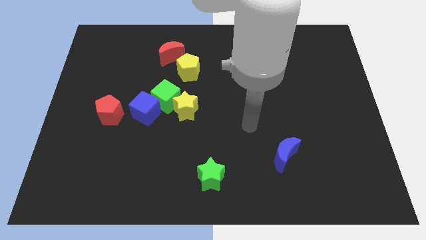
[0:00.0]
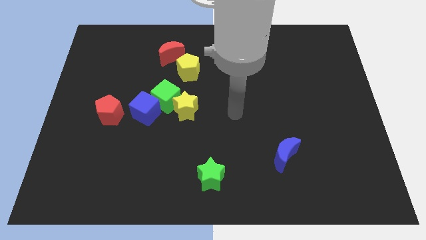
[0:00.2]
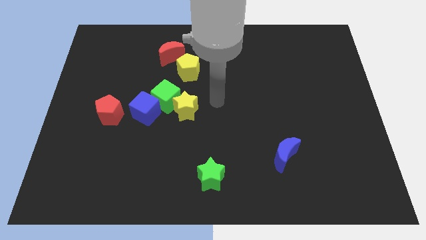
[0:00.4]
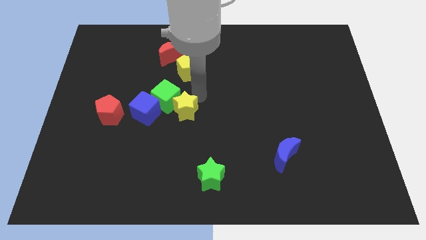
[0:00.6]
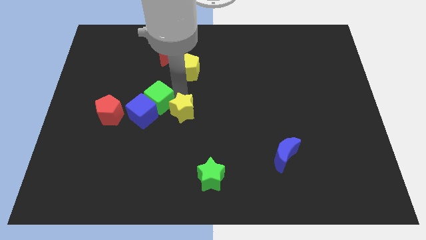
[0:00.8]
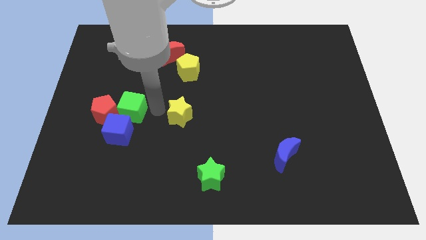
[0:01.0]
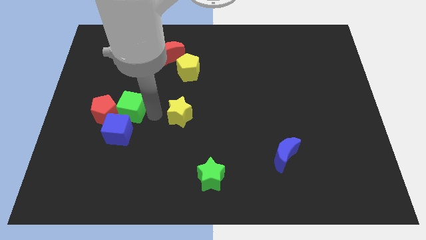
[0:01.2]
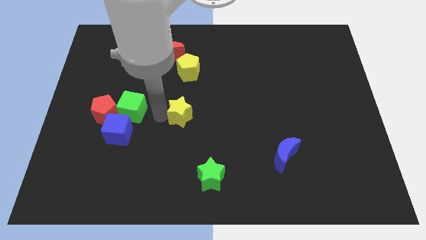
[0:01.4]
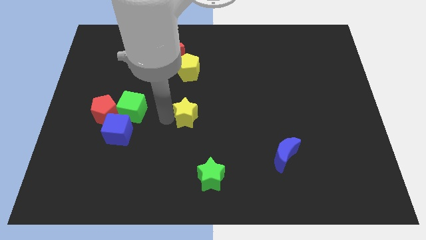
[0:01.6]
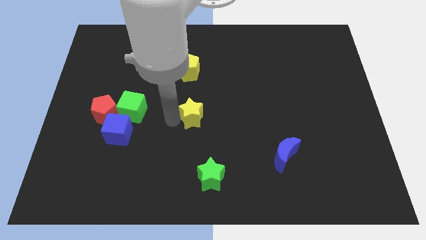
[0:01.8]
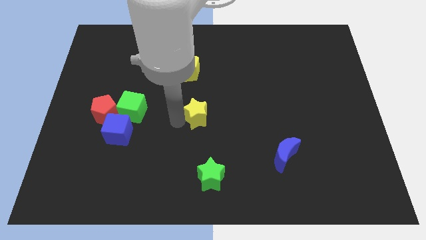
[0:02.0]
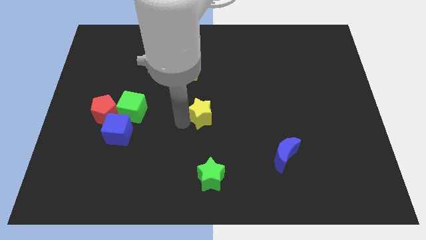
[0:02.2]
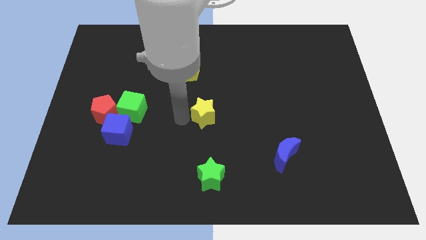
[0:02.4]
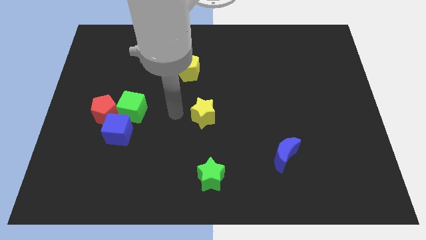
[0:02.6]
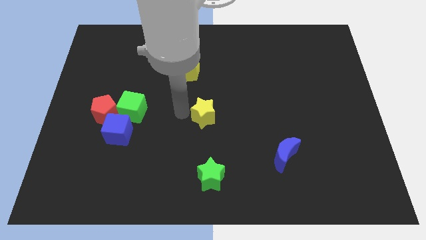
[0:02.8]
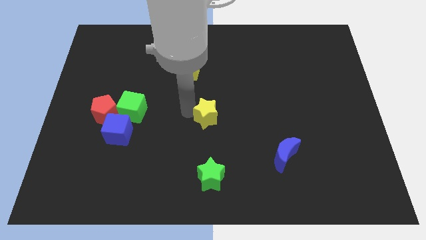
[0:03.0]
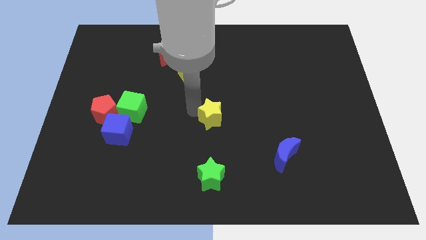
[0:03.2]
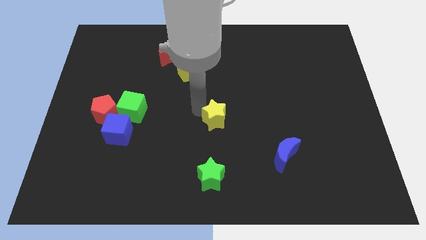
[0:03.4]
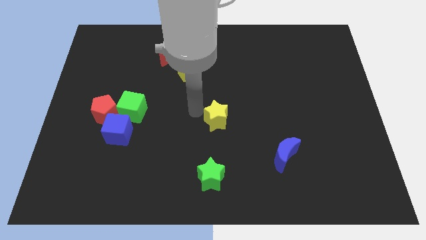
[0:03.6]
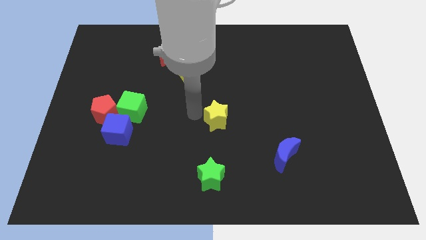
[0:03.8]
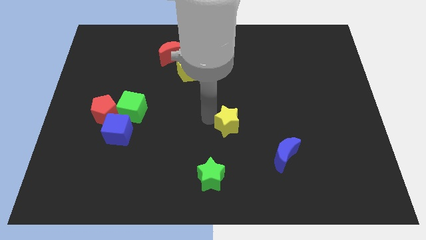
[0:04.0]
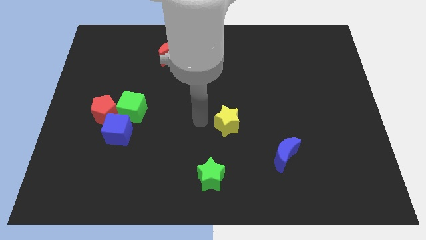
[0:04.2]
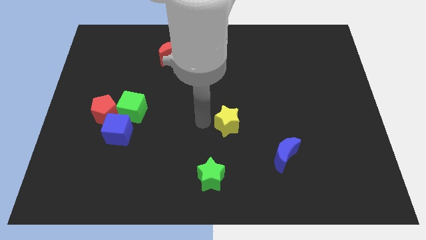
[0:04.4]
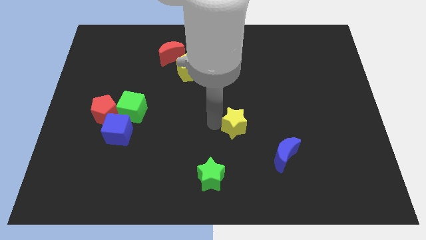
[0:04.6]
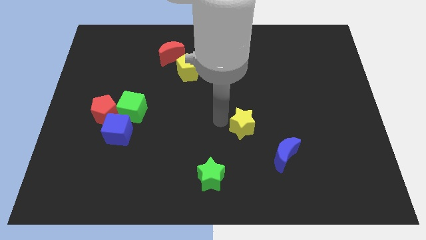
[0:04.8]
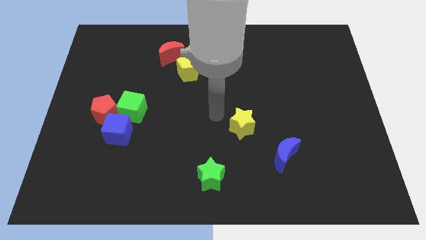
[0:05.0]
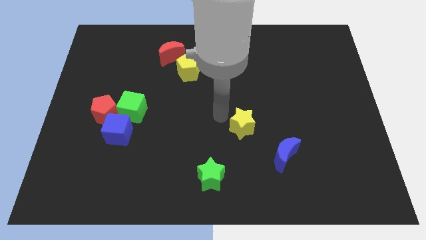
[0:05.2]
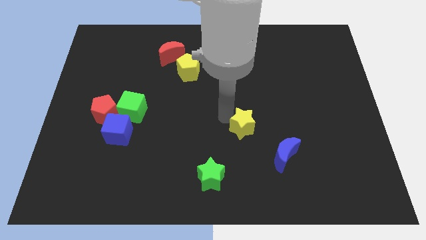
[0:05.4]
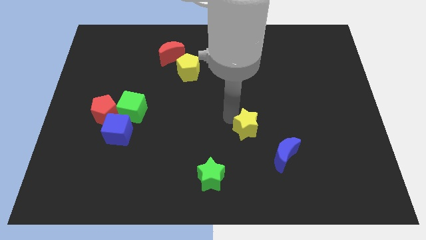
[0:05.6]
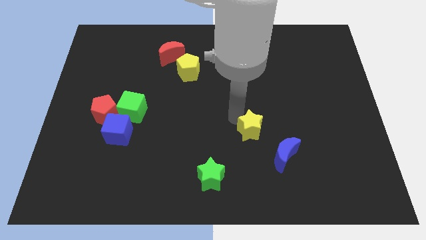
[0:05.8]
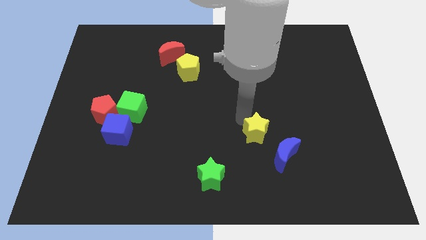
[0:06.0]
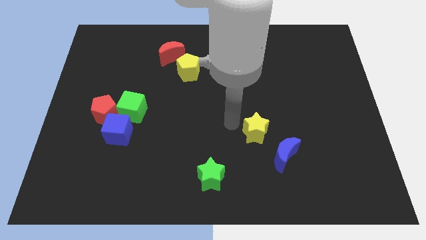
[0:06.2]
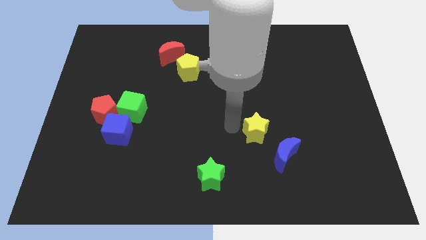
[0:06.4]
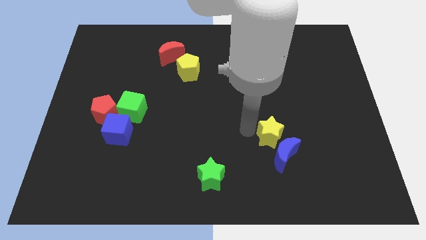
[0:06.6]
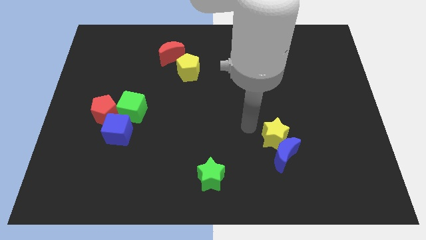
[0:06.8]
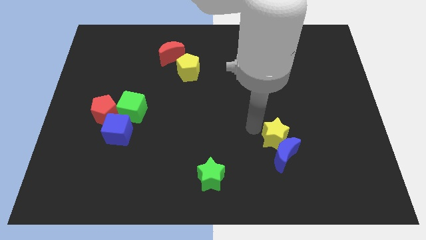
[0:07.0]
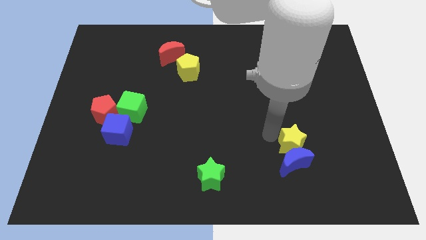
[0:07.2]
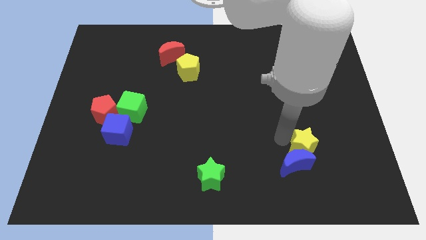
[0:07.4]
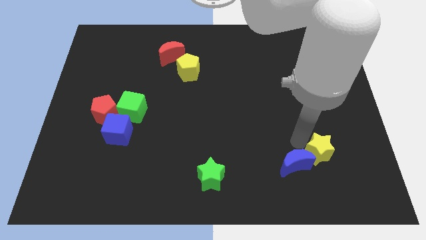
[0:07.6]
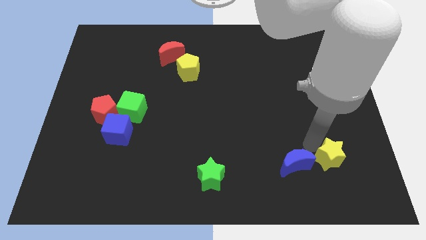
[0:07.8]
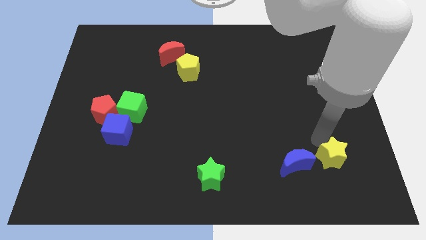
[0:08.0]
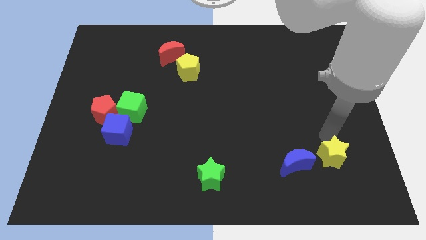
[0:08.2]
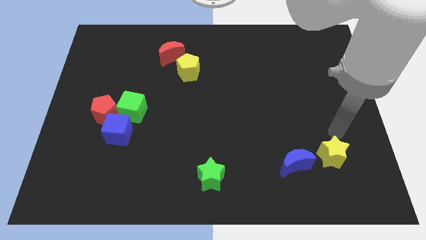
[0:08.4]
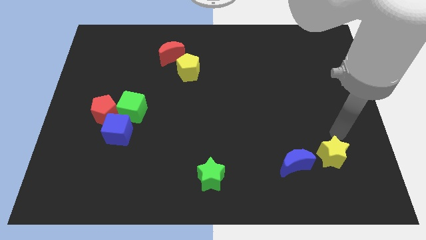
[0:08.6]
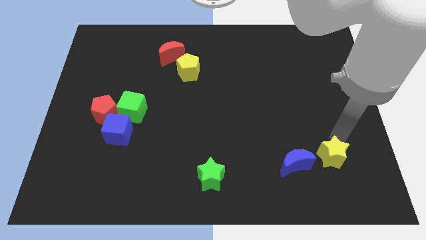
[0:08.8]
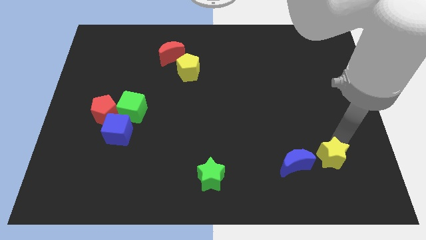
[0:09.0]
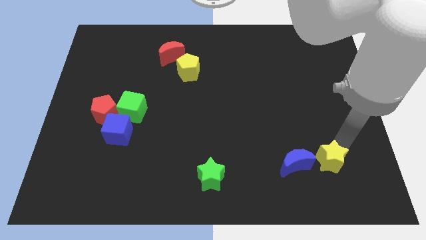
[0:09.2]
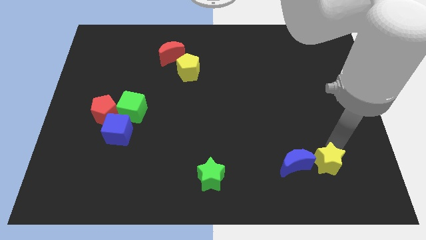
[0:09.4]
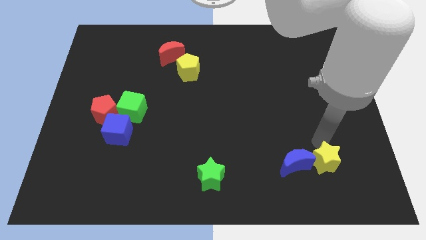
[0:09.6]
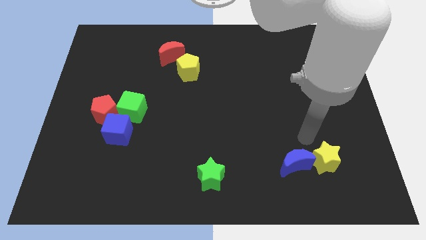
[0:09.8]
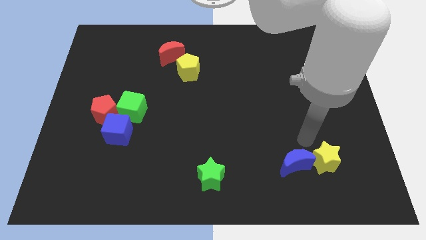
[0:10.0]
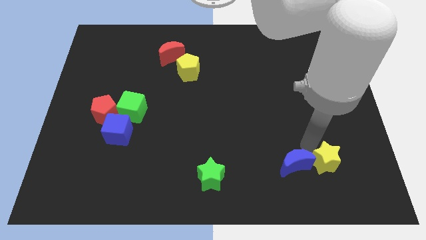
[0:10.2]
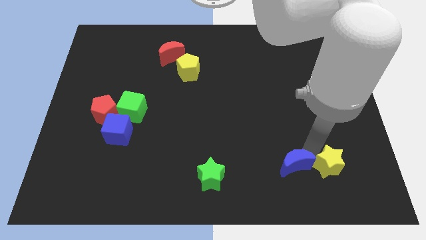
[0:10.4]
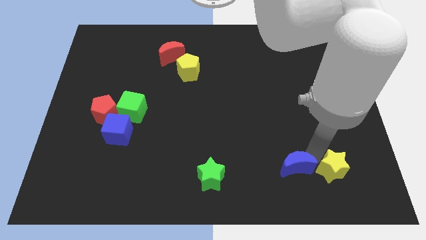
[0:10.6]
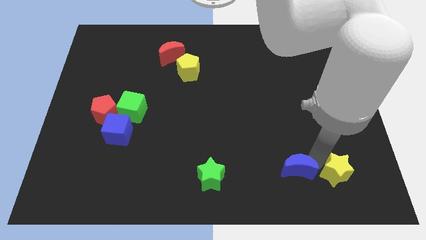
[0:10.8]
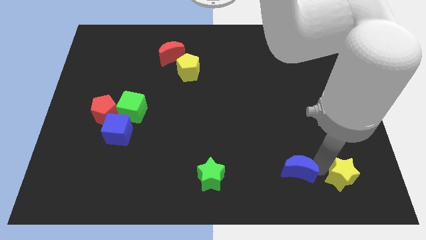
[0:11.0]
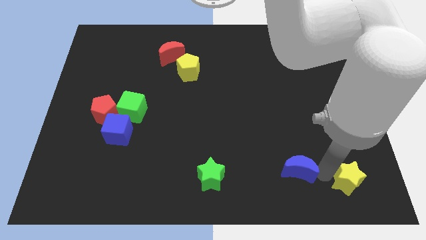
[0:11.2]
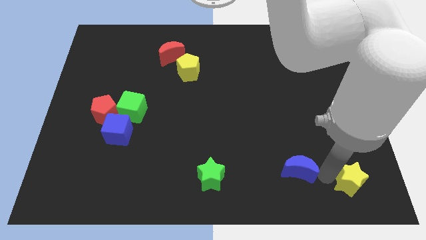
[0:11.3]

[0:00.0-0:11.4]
move the yellow star to the bottom right

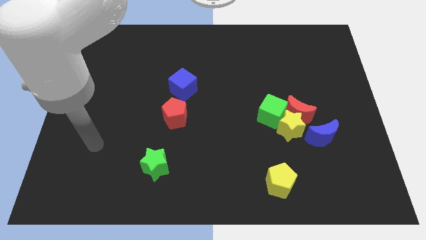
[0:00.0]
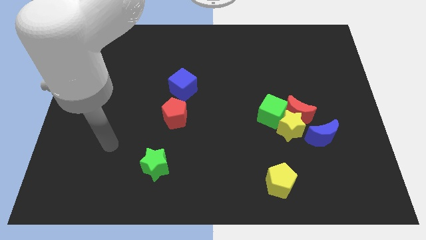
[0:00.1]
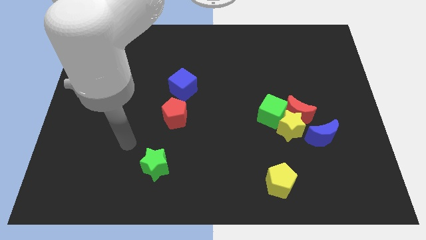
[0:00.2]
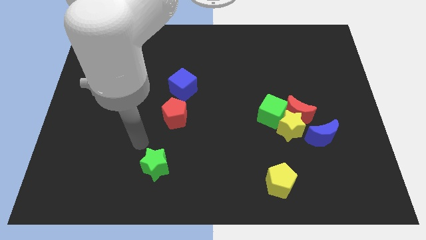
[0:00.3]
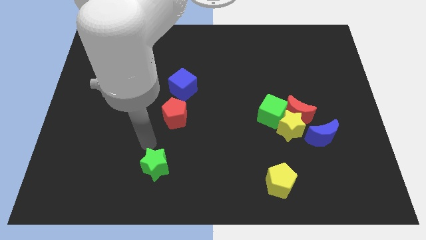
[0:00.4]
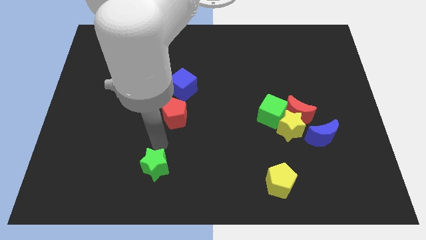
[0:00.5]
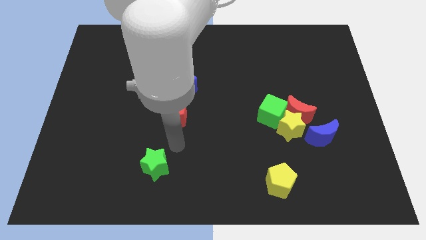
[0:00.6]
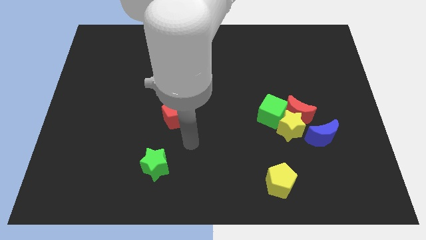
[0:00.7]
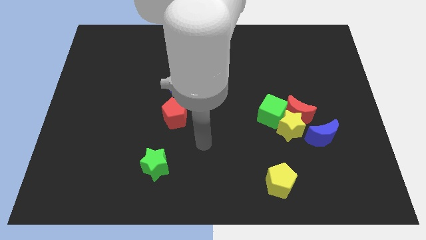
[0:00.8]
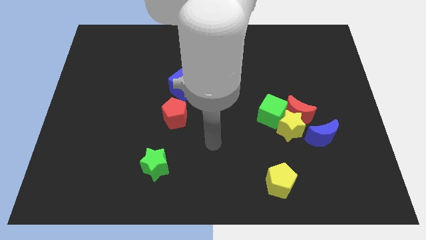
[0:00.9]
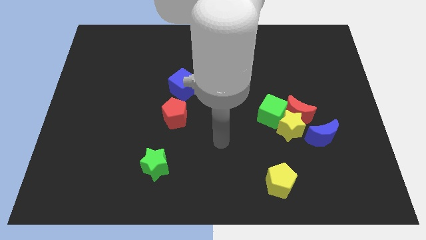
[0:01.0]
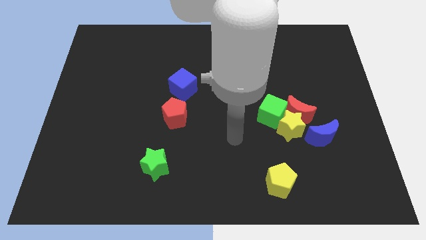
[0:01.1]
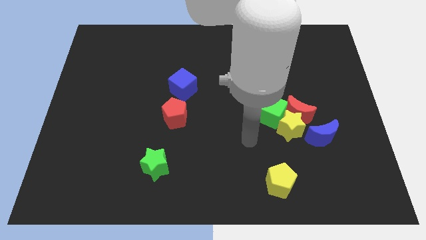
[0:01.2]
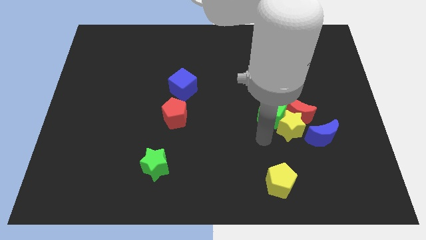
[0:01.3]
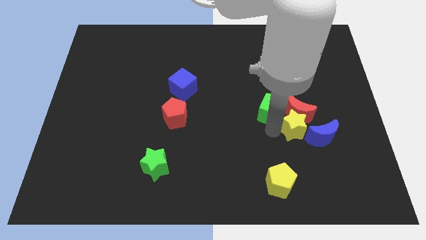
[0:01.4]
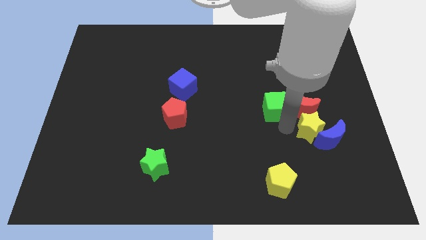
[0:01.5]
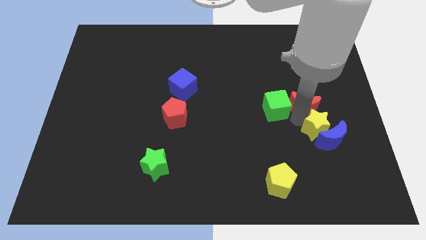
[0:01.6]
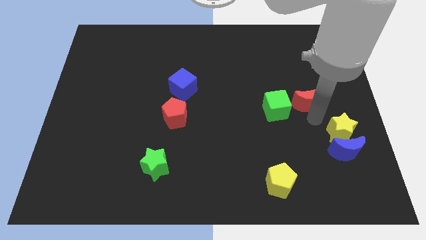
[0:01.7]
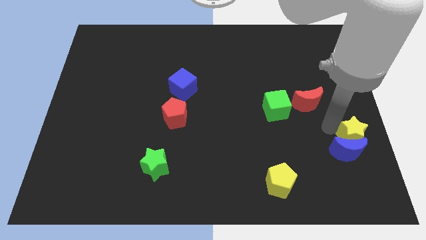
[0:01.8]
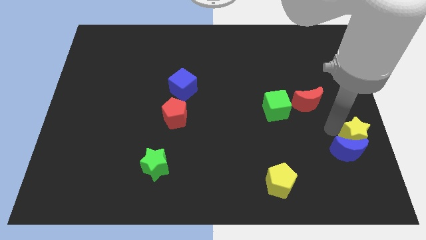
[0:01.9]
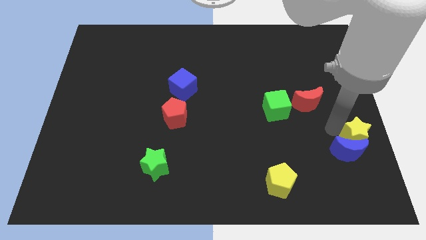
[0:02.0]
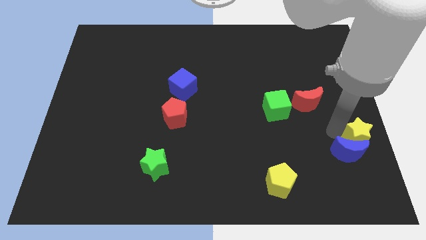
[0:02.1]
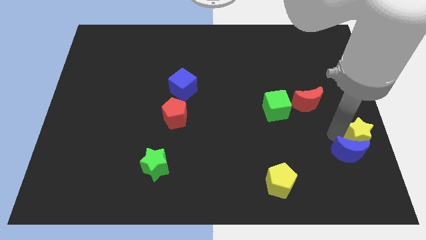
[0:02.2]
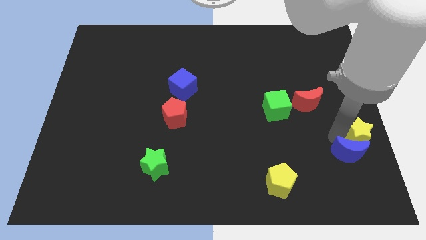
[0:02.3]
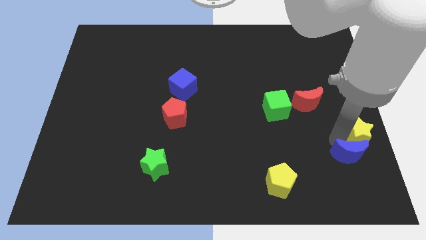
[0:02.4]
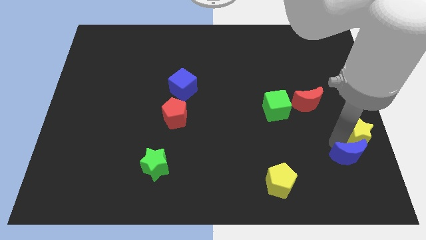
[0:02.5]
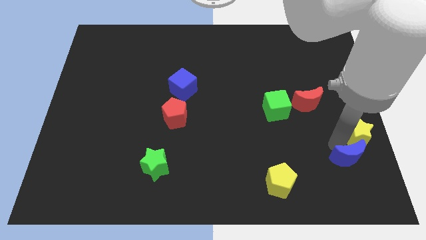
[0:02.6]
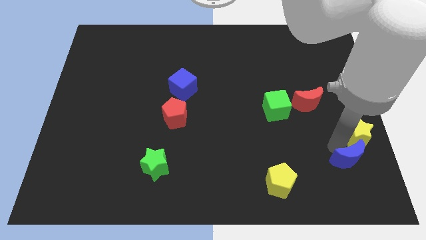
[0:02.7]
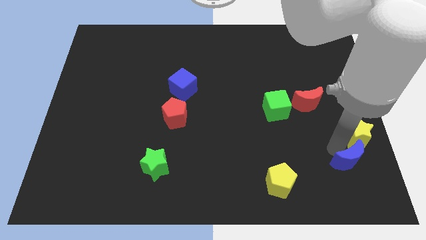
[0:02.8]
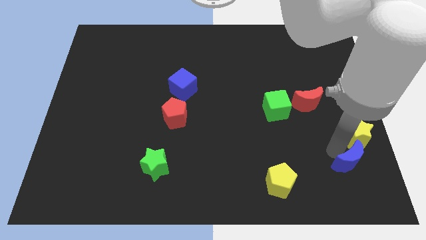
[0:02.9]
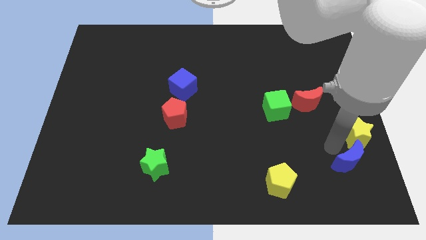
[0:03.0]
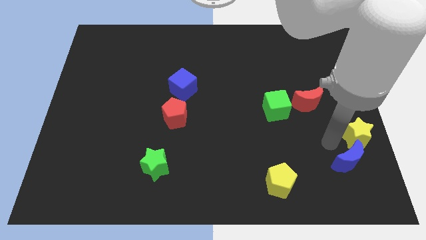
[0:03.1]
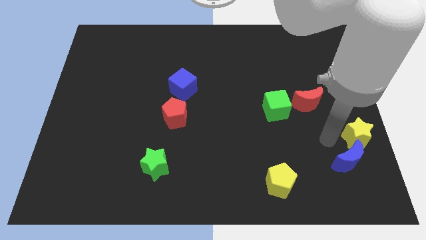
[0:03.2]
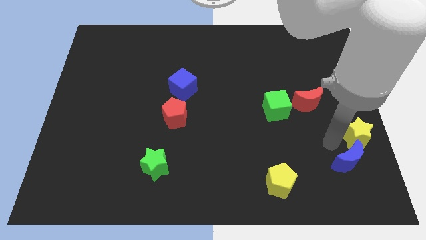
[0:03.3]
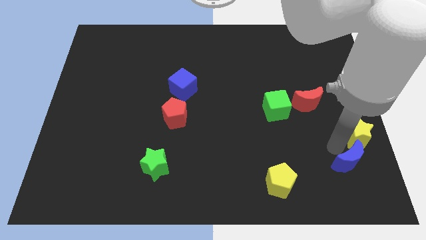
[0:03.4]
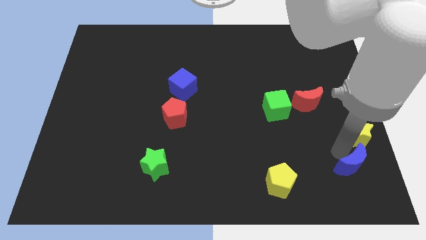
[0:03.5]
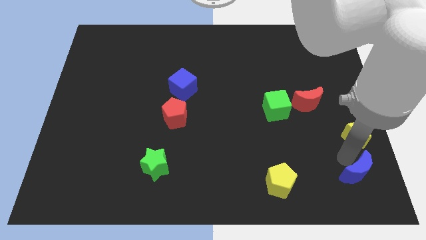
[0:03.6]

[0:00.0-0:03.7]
slide the blue moon to the bottom right corner
